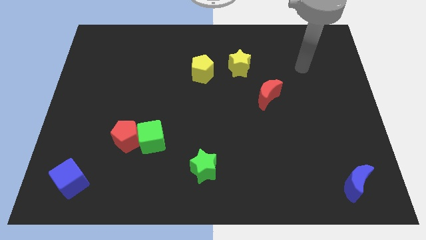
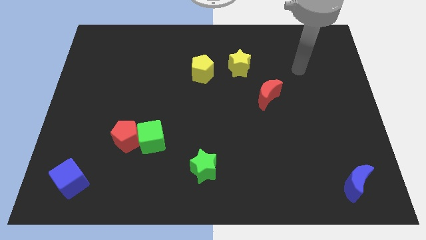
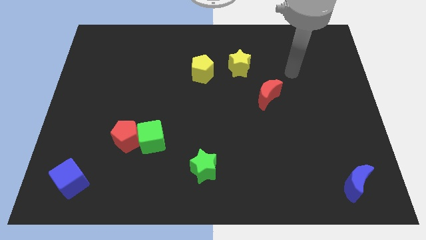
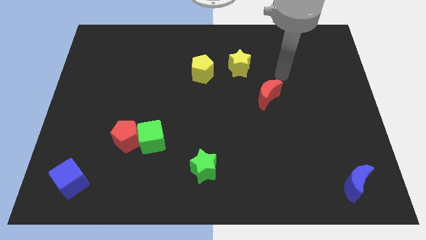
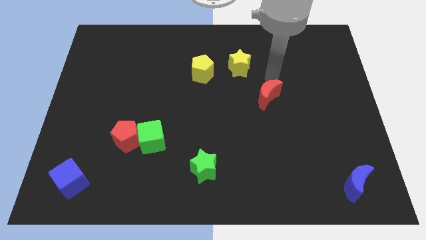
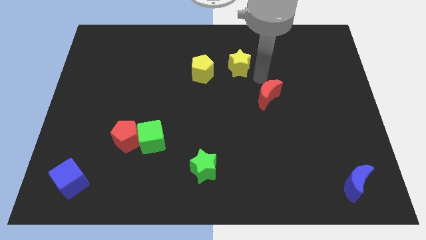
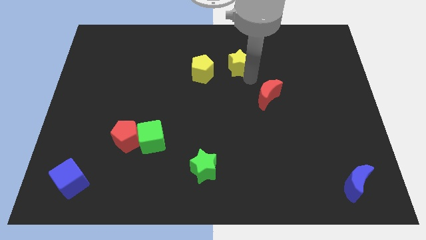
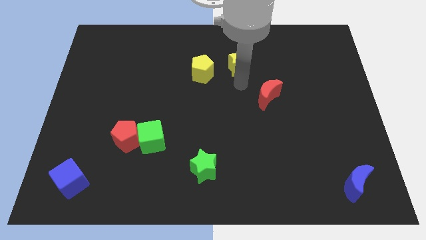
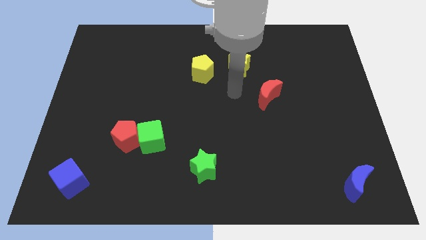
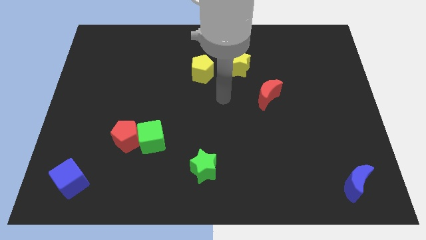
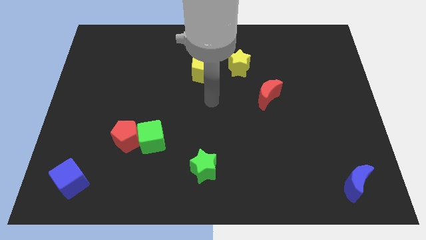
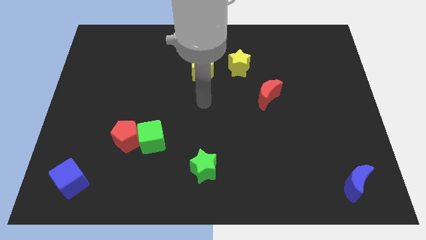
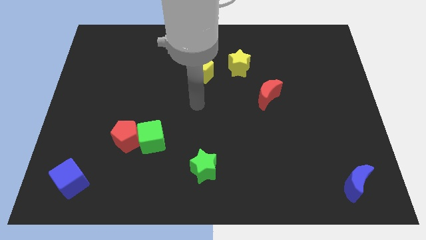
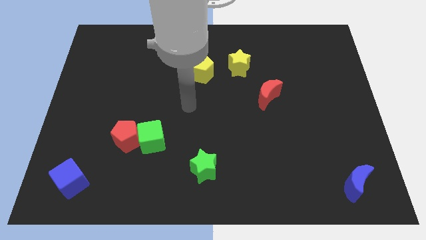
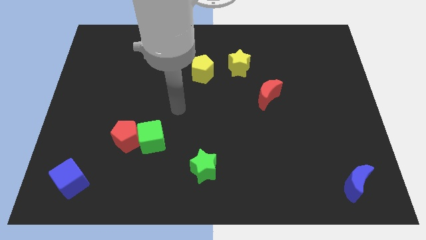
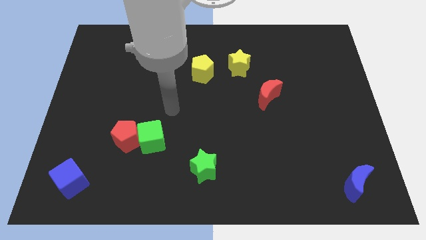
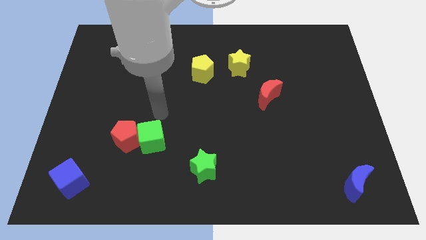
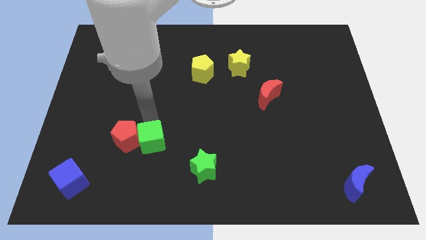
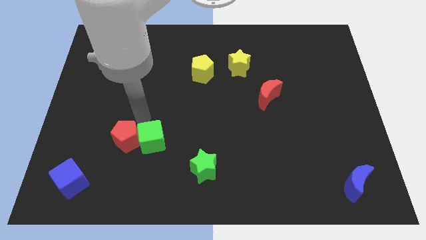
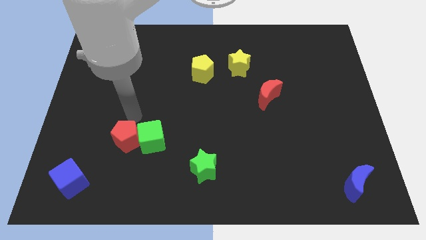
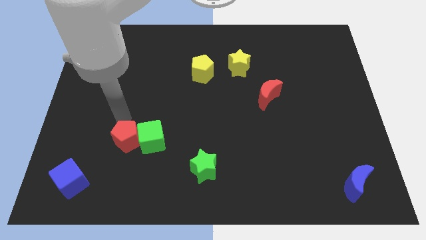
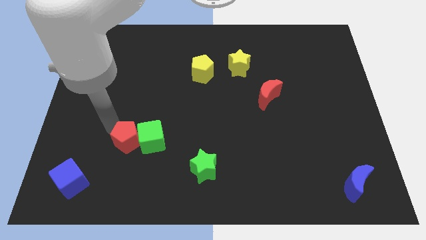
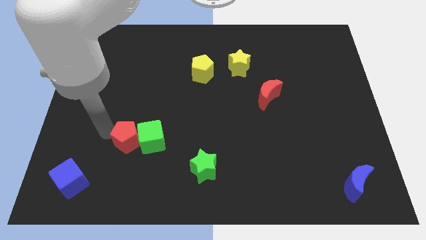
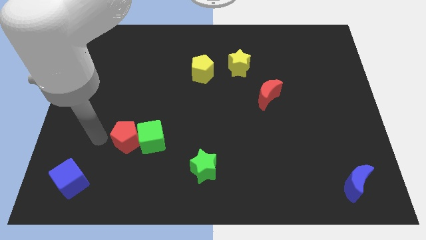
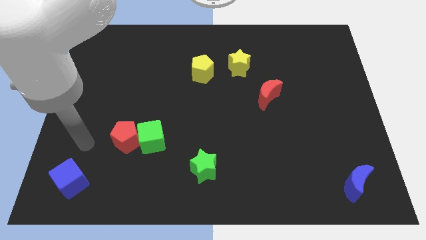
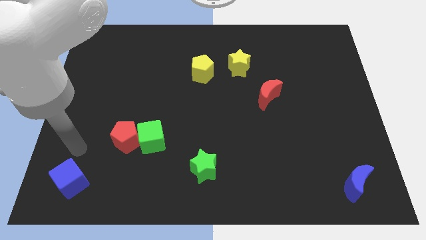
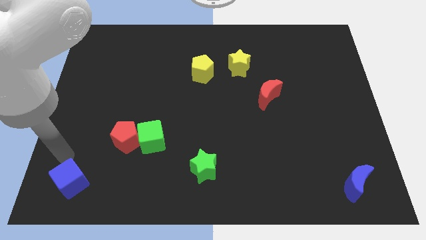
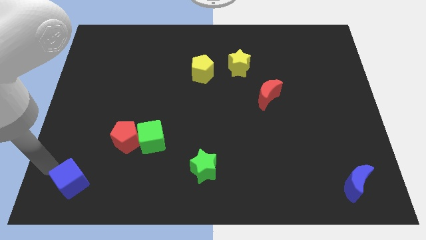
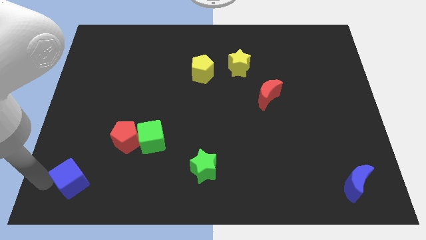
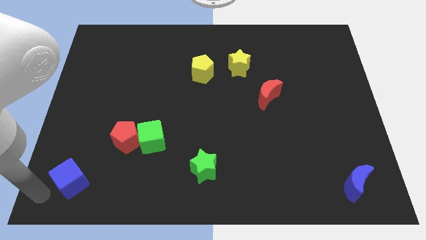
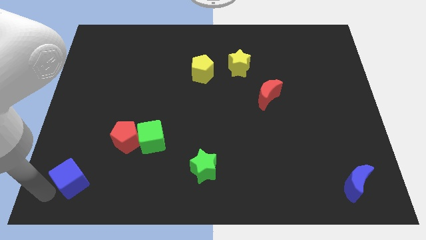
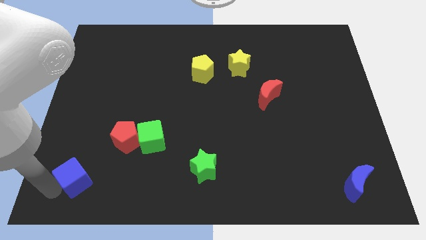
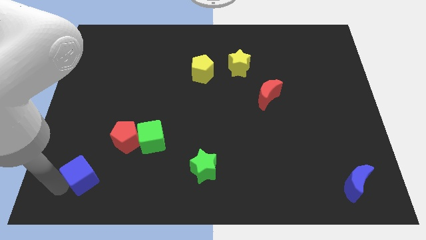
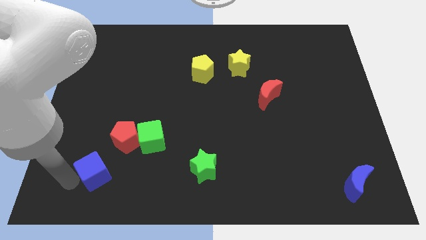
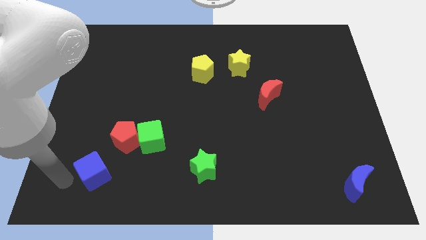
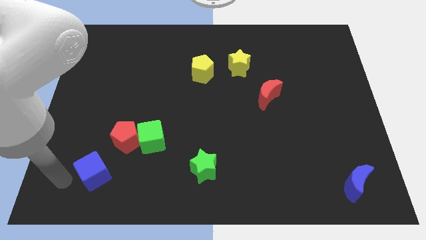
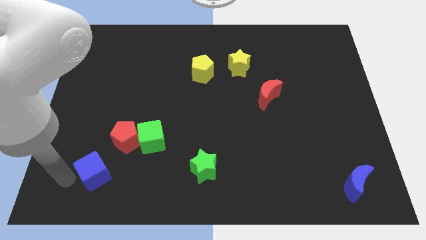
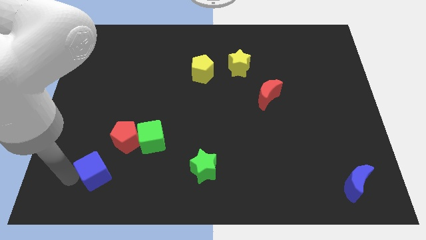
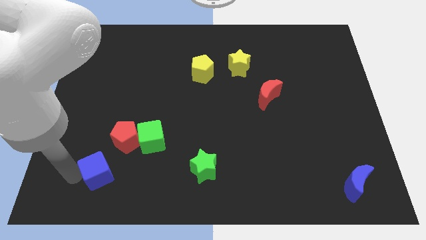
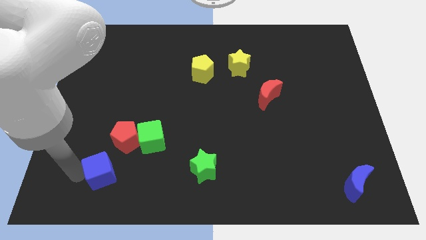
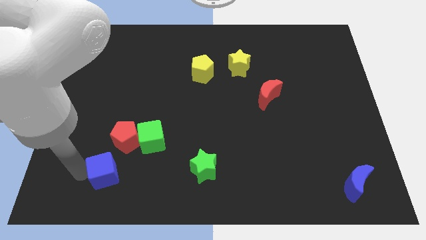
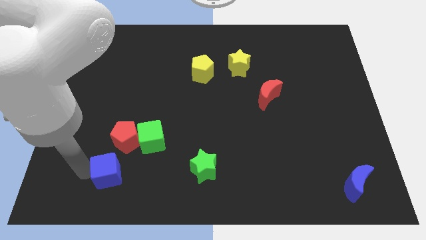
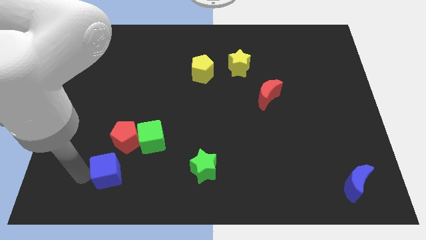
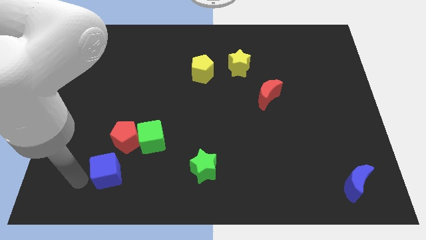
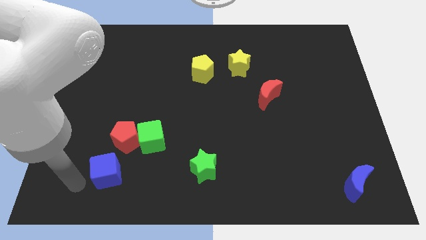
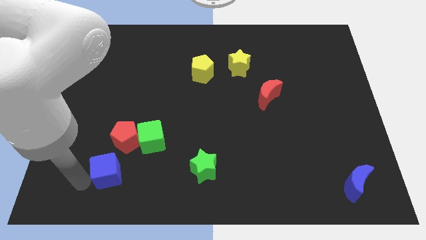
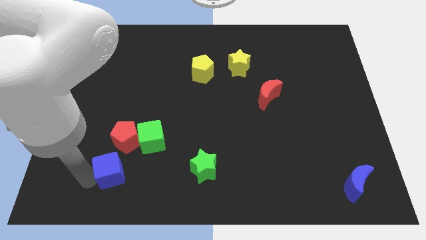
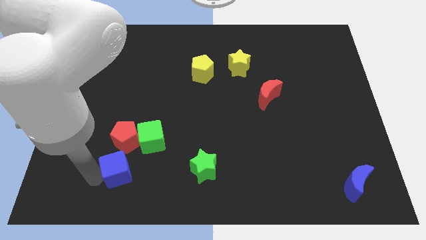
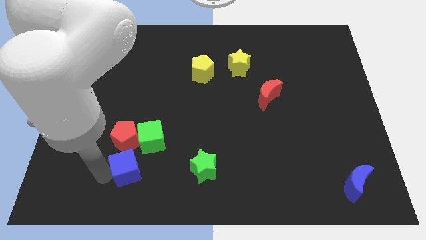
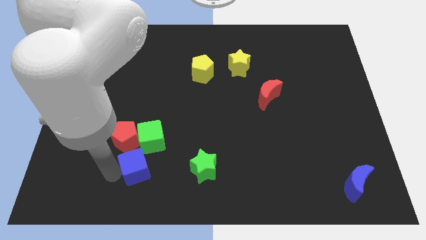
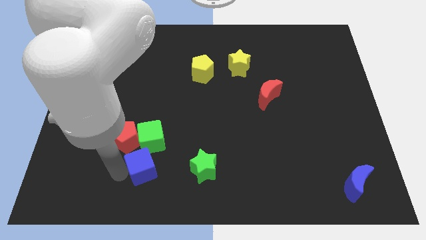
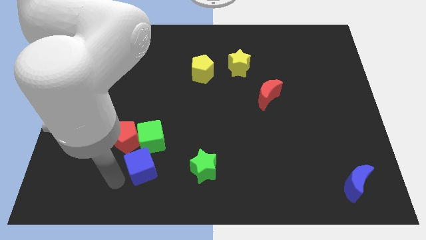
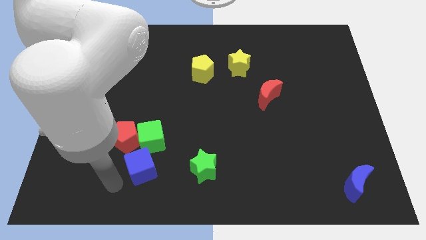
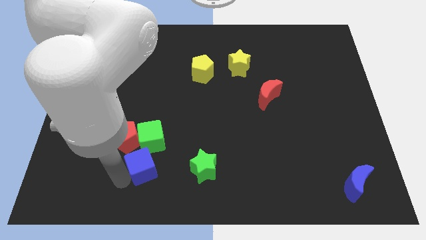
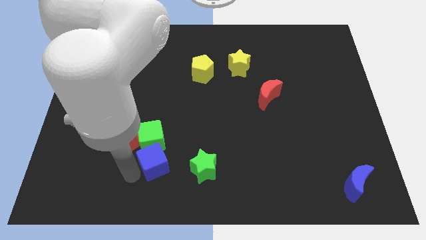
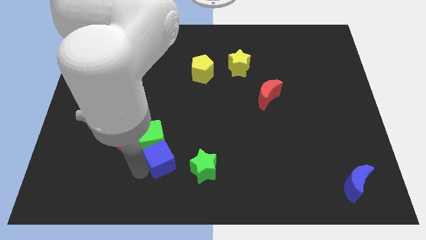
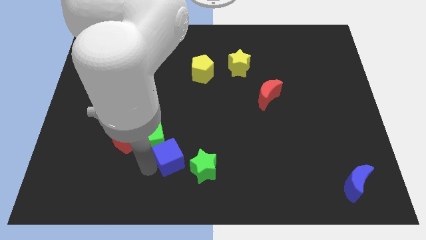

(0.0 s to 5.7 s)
put the blue cube to the top left side of the green star
